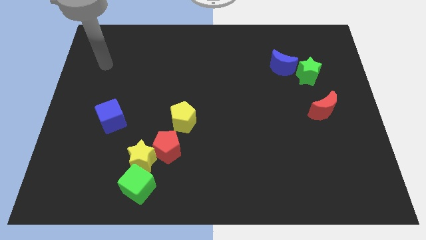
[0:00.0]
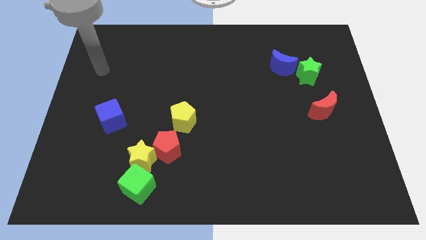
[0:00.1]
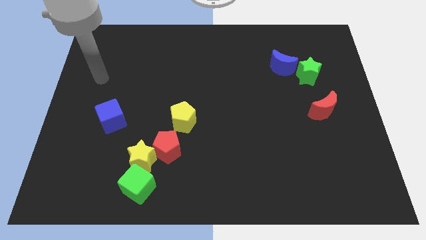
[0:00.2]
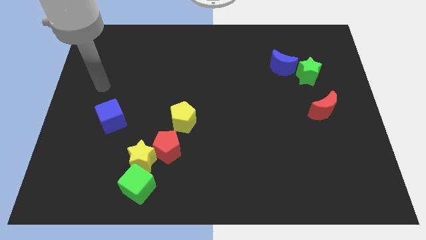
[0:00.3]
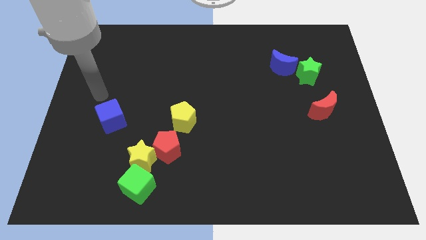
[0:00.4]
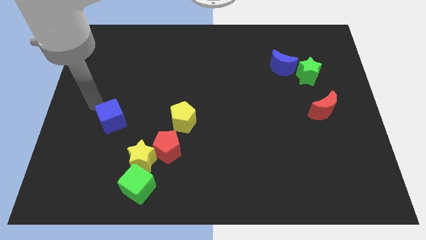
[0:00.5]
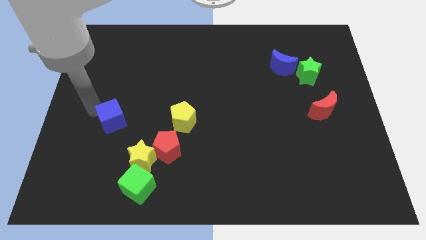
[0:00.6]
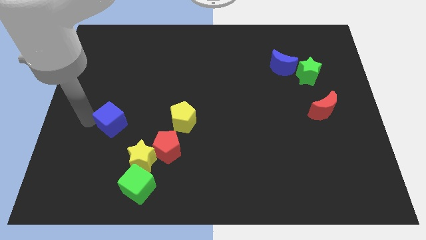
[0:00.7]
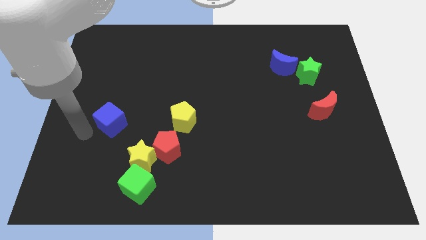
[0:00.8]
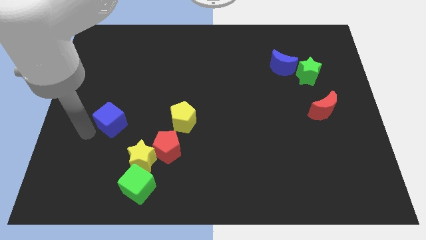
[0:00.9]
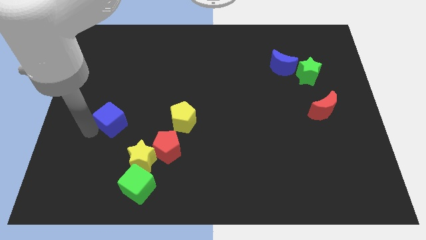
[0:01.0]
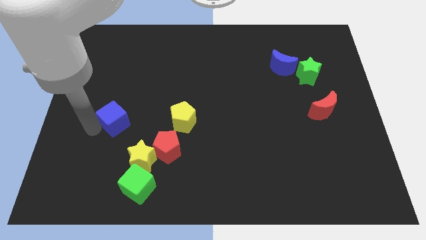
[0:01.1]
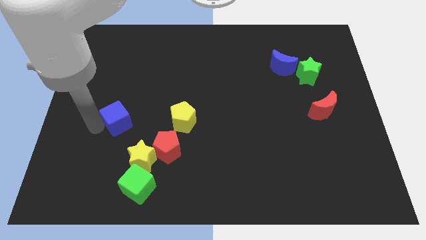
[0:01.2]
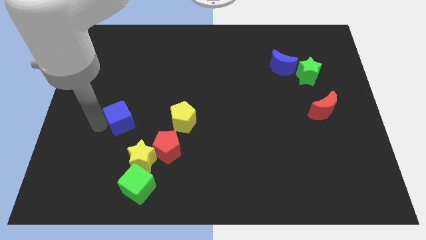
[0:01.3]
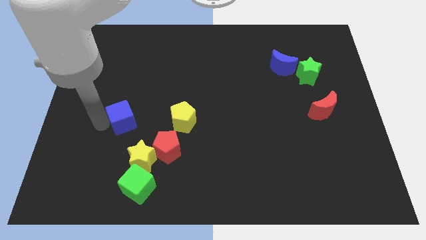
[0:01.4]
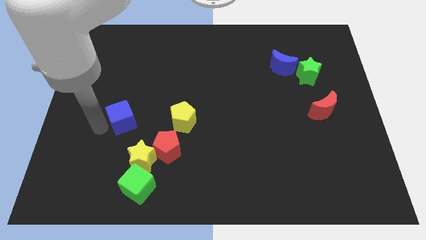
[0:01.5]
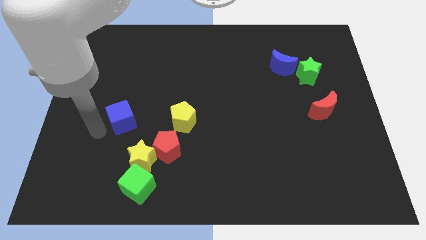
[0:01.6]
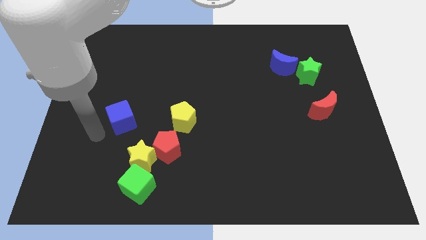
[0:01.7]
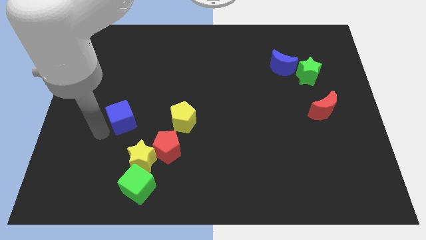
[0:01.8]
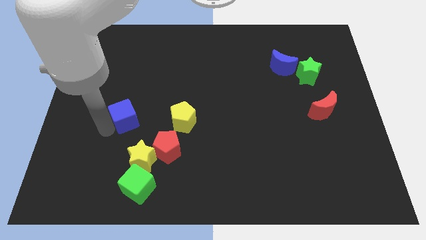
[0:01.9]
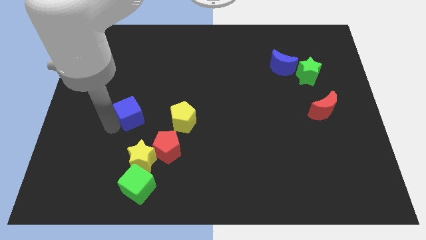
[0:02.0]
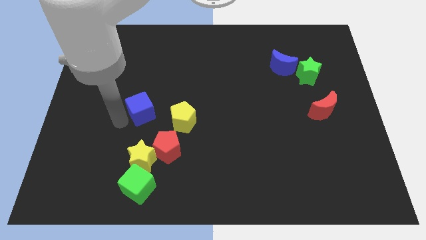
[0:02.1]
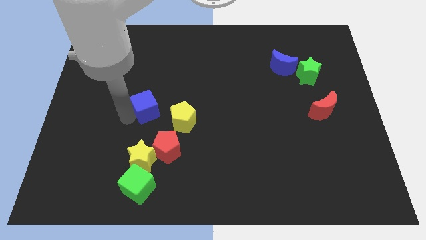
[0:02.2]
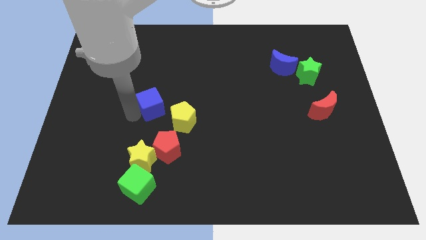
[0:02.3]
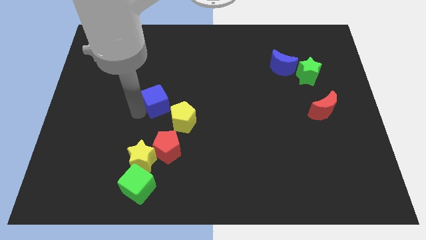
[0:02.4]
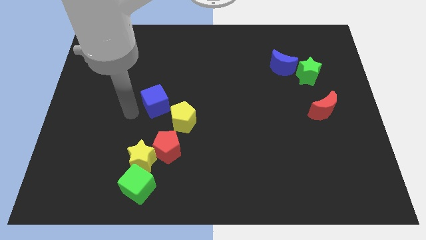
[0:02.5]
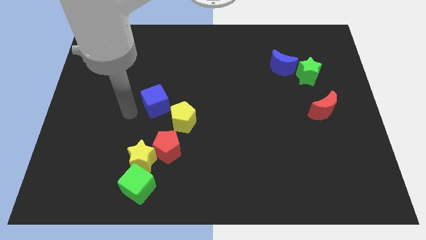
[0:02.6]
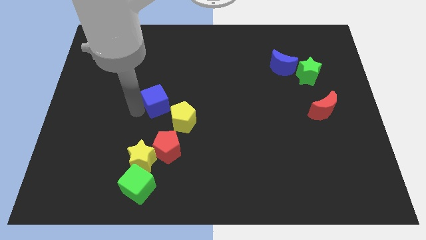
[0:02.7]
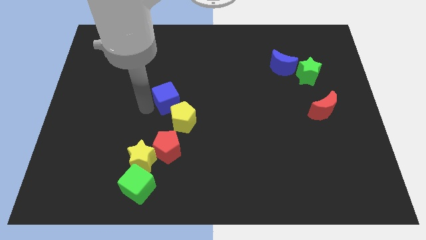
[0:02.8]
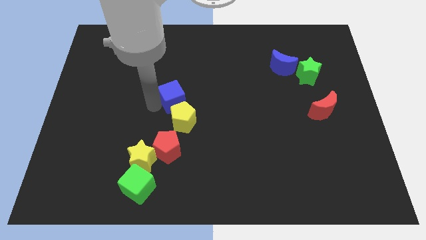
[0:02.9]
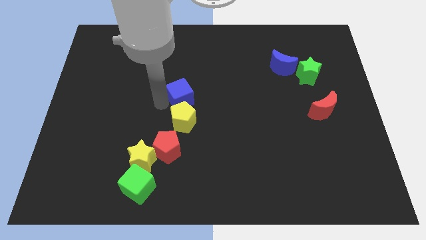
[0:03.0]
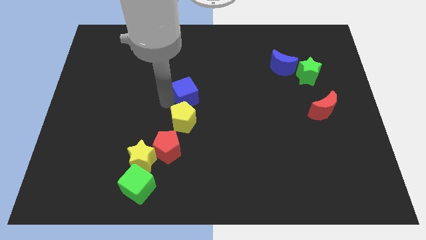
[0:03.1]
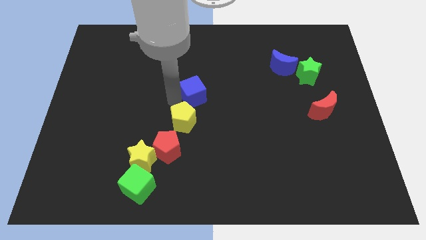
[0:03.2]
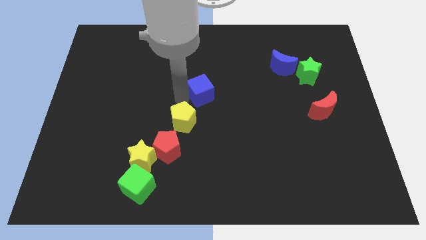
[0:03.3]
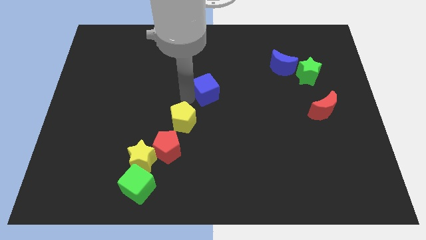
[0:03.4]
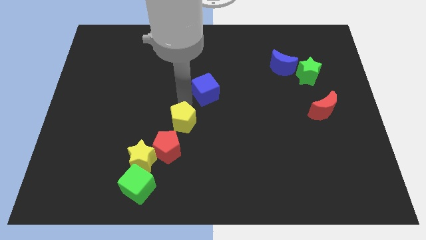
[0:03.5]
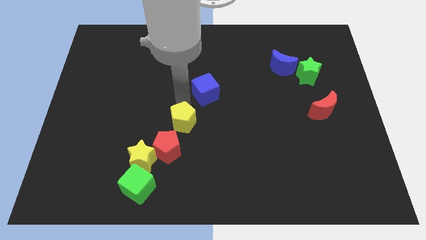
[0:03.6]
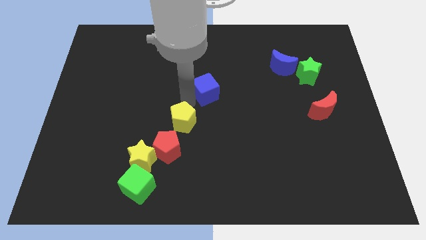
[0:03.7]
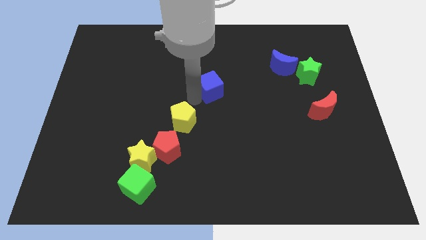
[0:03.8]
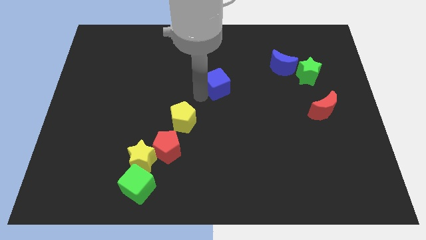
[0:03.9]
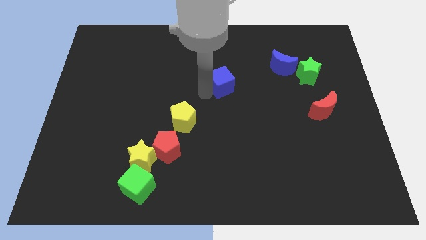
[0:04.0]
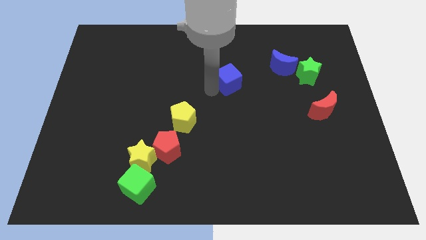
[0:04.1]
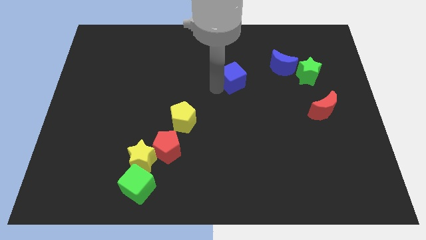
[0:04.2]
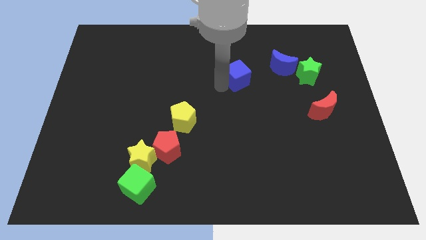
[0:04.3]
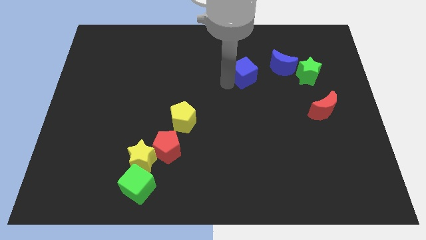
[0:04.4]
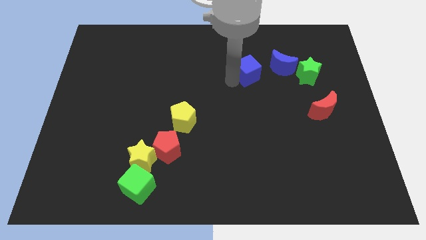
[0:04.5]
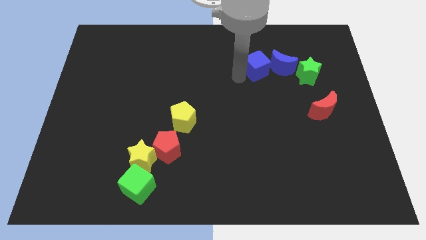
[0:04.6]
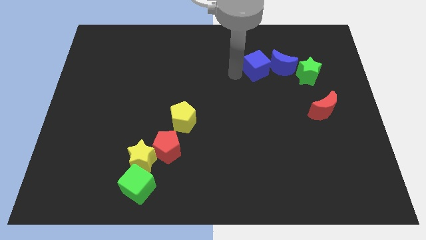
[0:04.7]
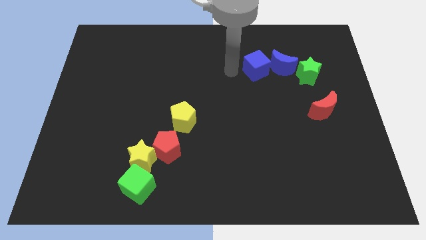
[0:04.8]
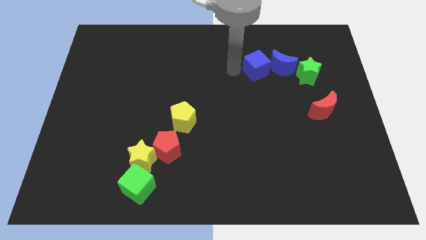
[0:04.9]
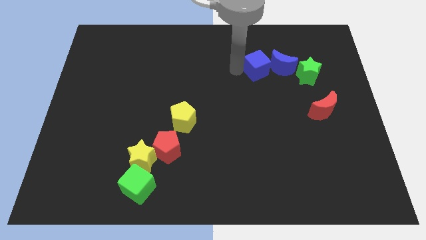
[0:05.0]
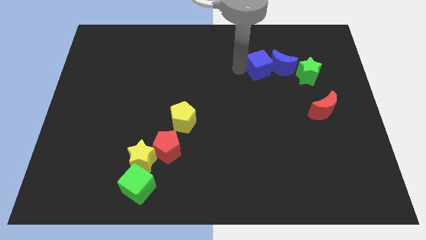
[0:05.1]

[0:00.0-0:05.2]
move the blue cube towards the blue moon

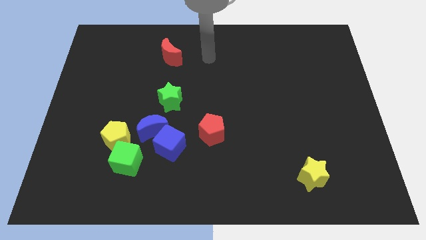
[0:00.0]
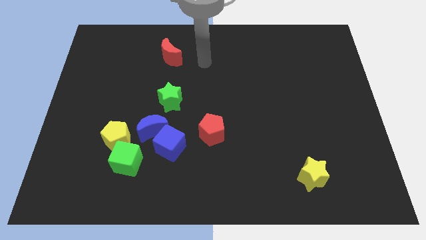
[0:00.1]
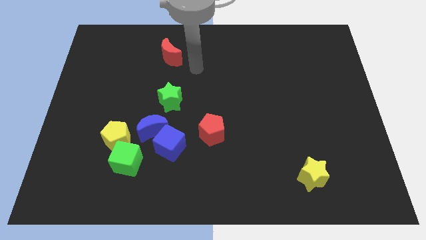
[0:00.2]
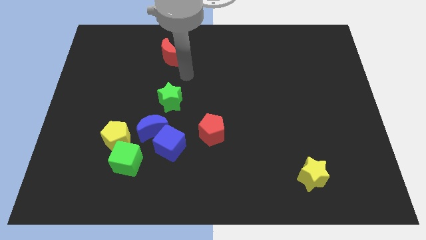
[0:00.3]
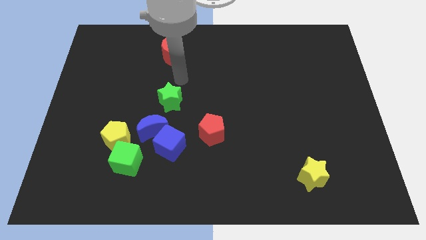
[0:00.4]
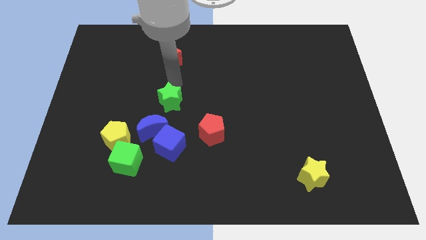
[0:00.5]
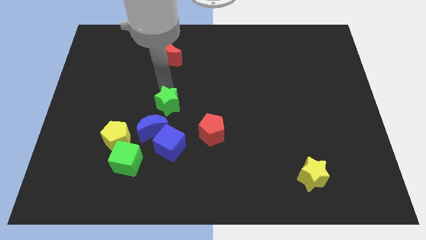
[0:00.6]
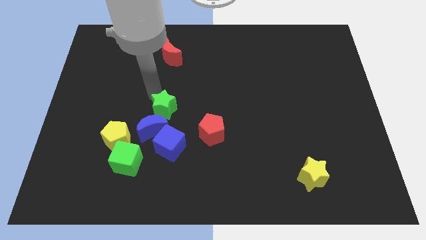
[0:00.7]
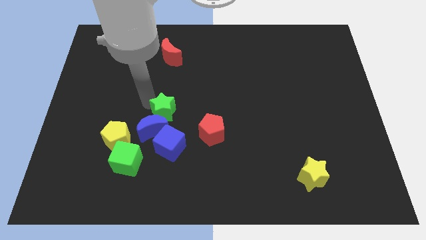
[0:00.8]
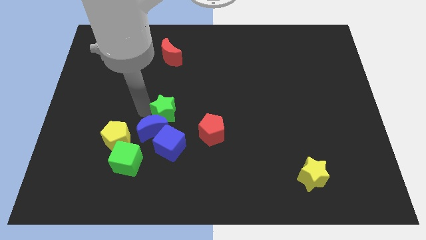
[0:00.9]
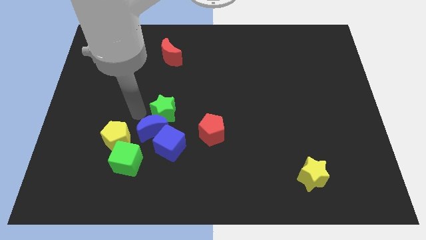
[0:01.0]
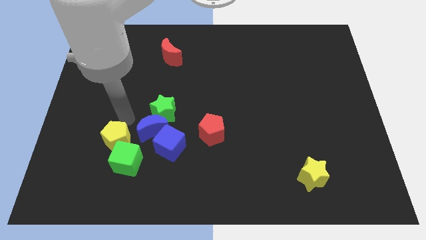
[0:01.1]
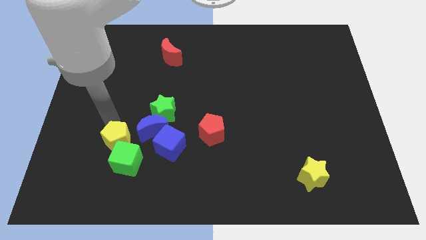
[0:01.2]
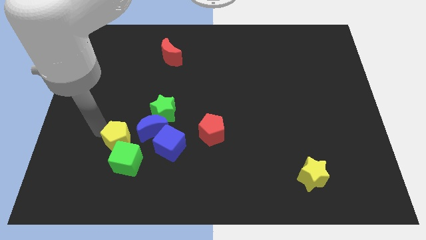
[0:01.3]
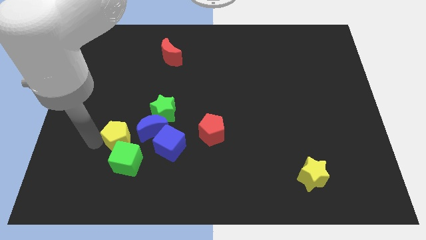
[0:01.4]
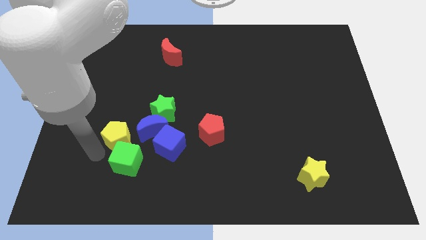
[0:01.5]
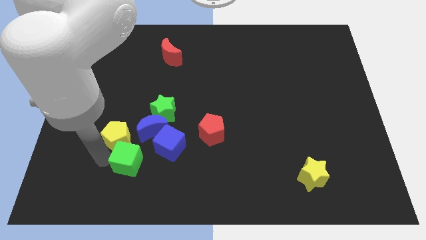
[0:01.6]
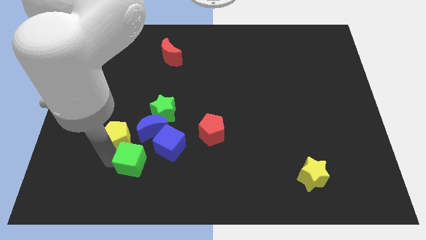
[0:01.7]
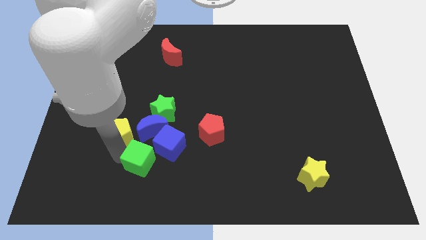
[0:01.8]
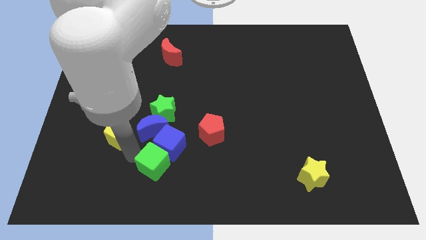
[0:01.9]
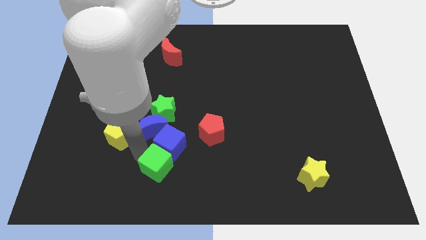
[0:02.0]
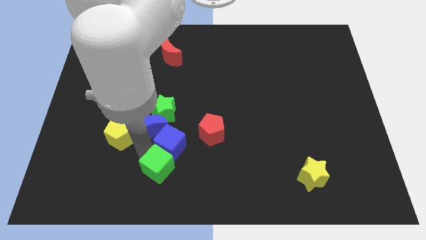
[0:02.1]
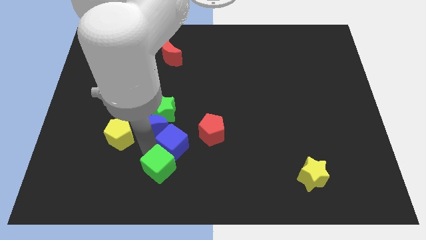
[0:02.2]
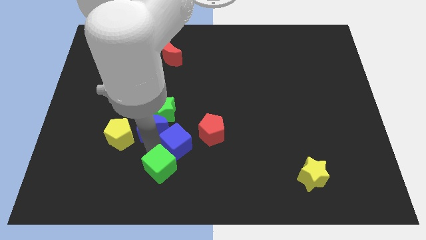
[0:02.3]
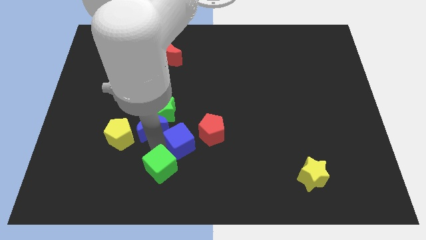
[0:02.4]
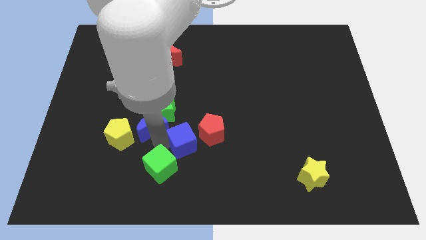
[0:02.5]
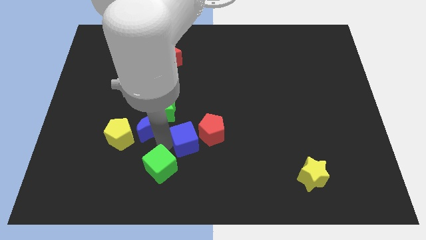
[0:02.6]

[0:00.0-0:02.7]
move the blue cube next to the red pentagon
